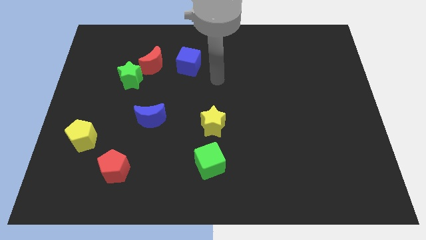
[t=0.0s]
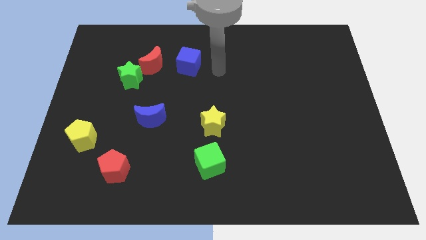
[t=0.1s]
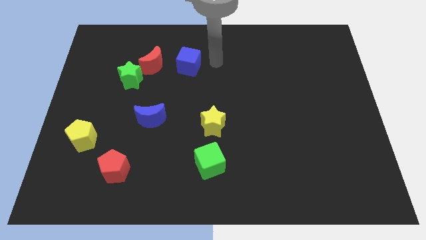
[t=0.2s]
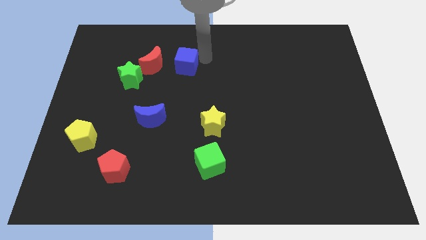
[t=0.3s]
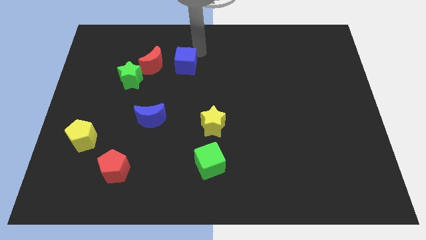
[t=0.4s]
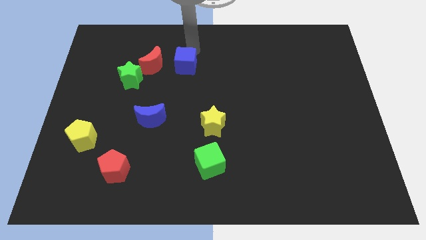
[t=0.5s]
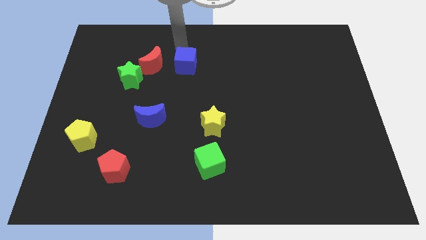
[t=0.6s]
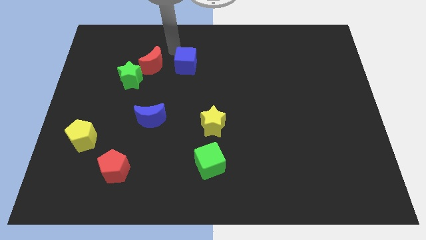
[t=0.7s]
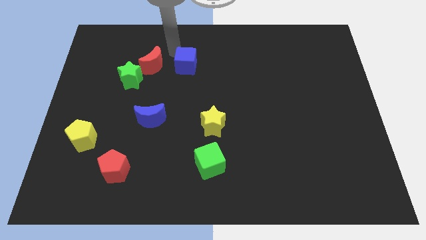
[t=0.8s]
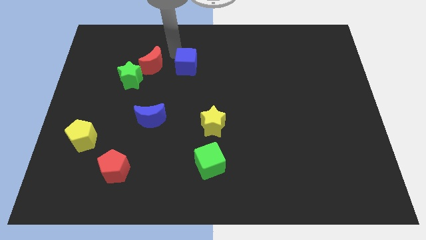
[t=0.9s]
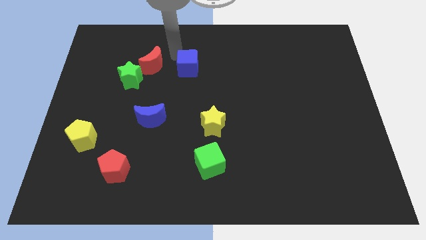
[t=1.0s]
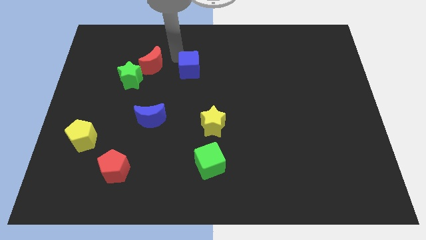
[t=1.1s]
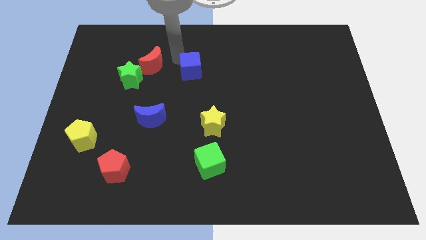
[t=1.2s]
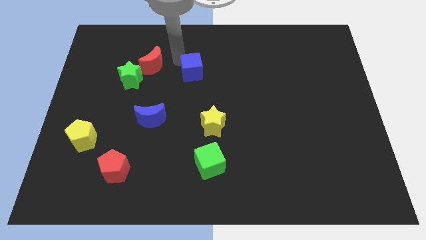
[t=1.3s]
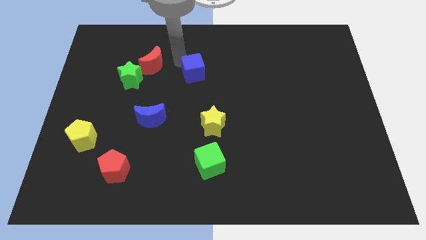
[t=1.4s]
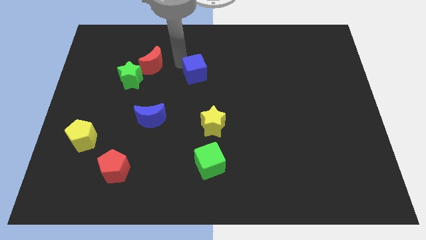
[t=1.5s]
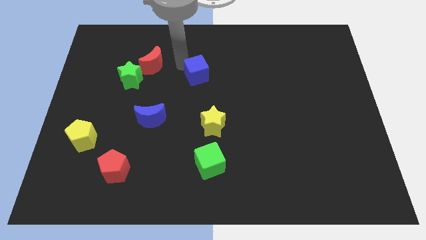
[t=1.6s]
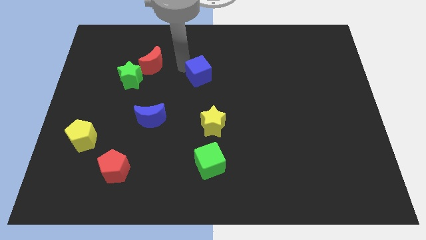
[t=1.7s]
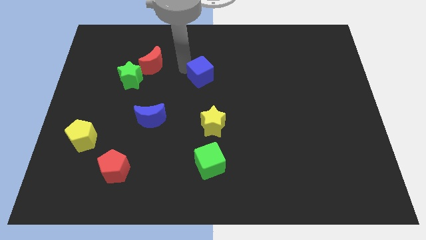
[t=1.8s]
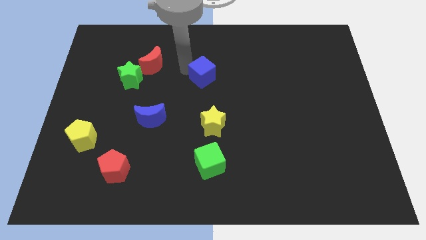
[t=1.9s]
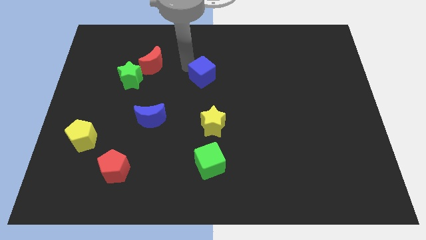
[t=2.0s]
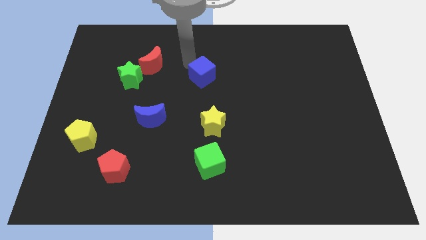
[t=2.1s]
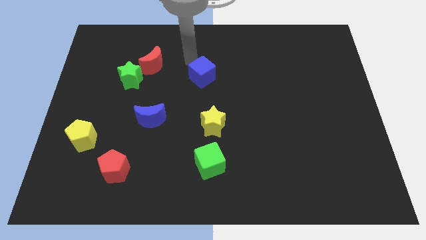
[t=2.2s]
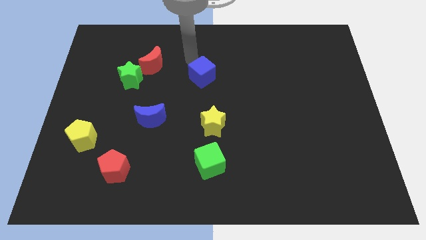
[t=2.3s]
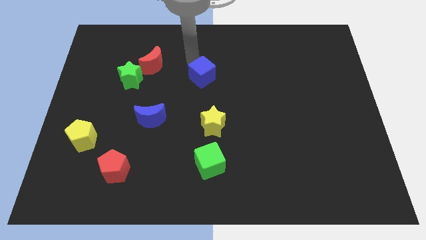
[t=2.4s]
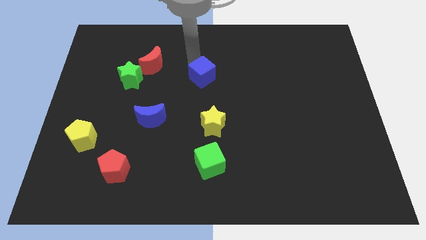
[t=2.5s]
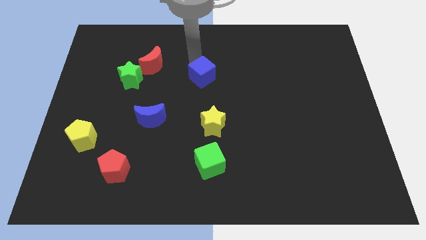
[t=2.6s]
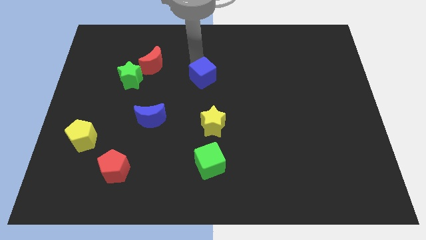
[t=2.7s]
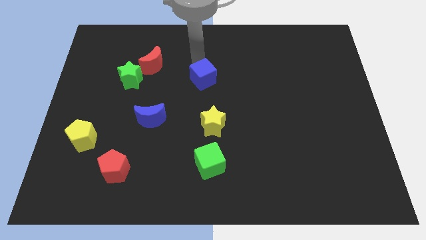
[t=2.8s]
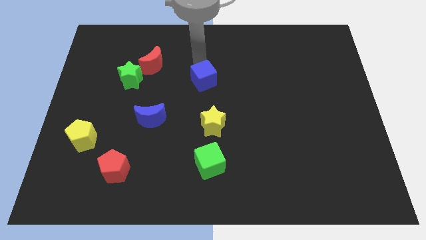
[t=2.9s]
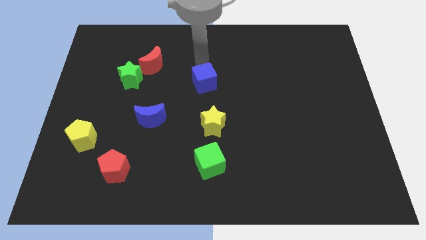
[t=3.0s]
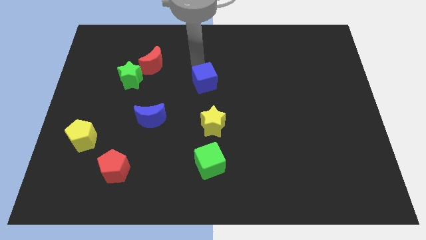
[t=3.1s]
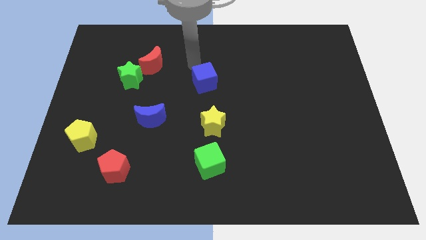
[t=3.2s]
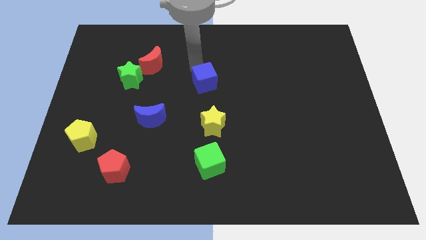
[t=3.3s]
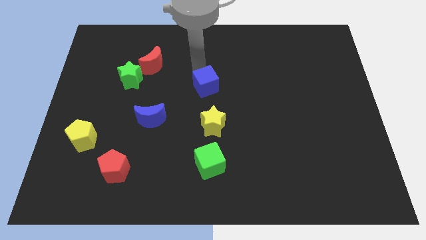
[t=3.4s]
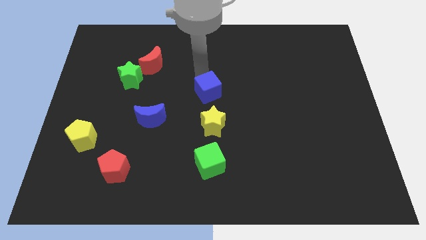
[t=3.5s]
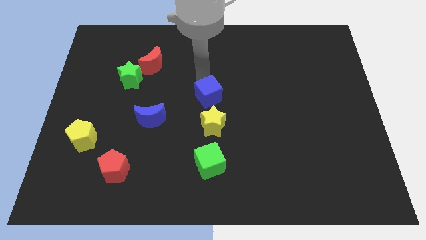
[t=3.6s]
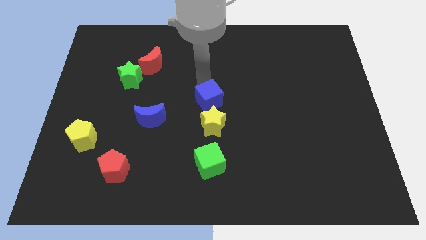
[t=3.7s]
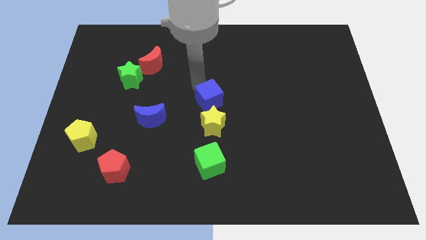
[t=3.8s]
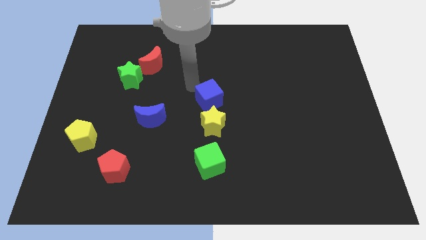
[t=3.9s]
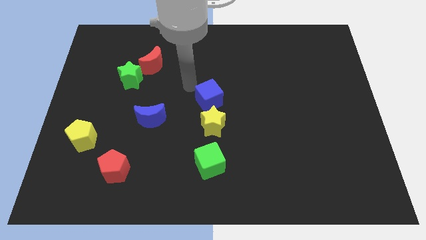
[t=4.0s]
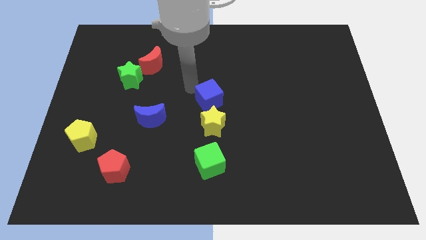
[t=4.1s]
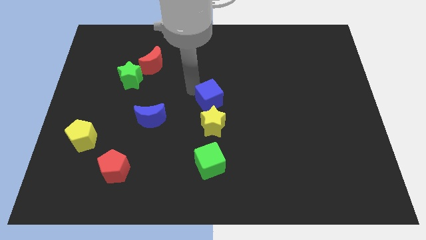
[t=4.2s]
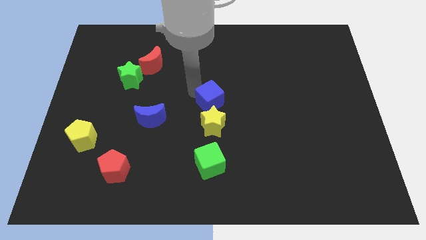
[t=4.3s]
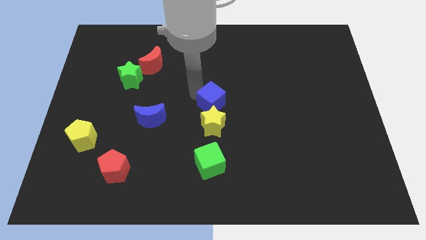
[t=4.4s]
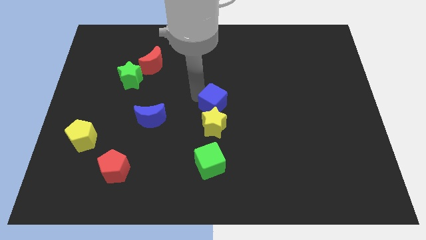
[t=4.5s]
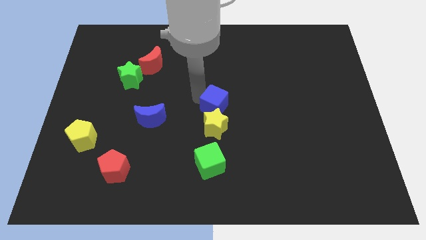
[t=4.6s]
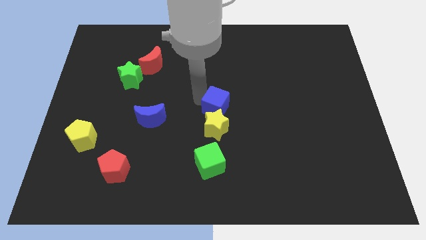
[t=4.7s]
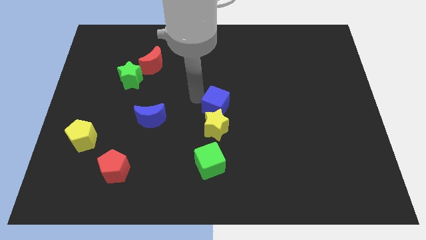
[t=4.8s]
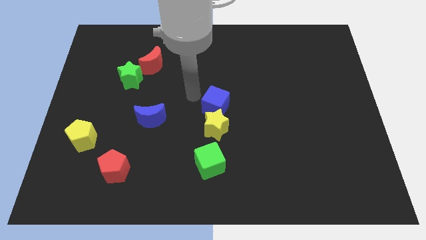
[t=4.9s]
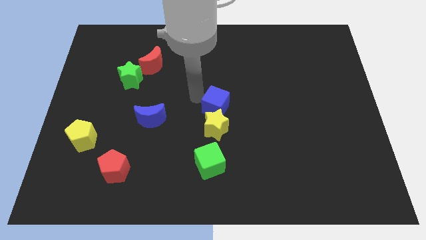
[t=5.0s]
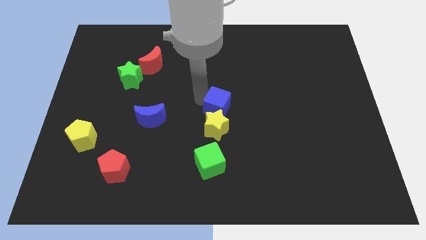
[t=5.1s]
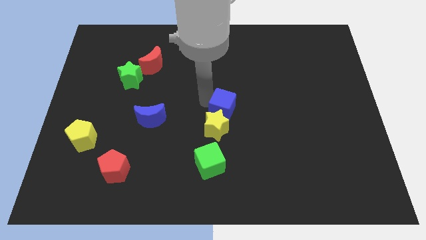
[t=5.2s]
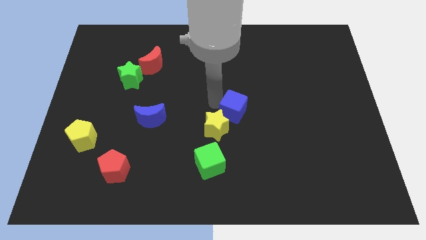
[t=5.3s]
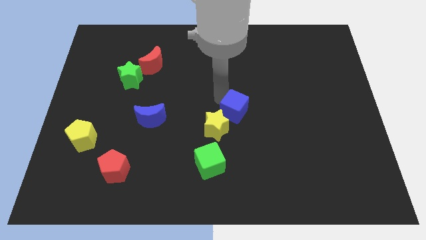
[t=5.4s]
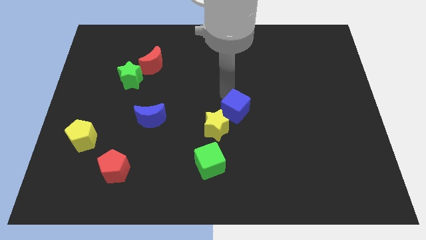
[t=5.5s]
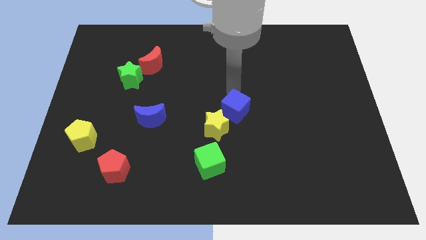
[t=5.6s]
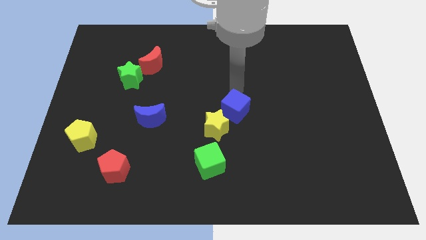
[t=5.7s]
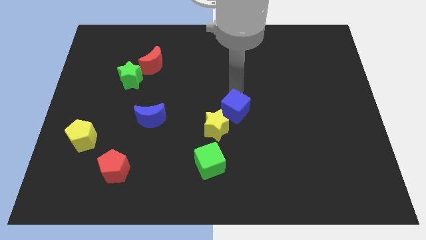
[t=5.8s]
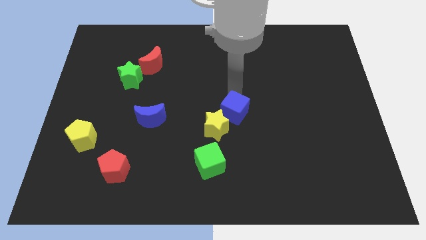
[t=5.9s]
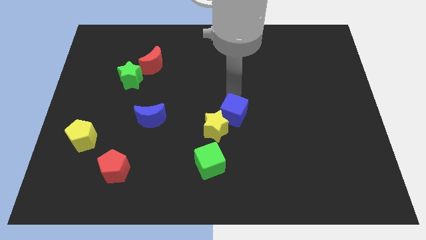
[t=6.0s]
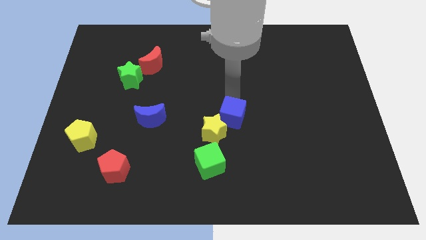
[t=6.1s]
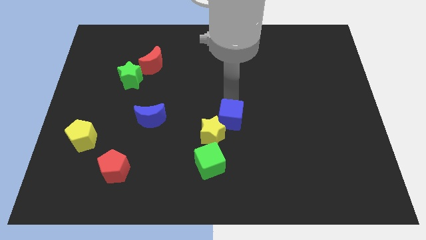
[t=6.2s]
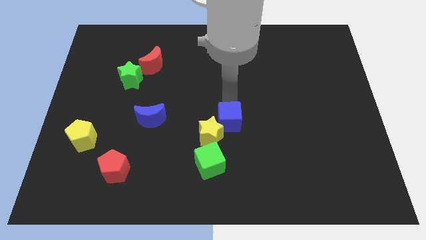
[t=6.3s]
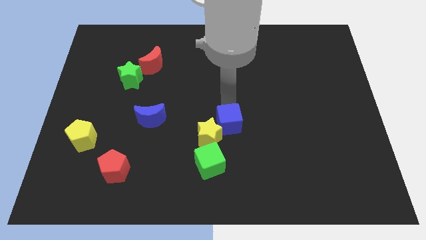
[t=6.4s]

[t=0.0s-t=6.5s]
slide the blue cube to the top right of the green cube
